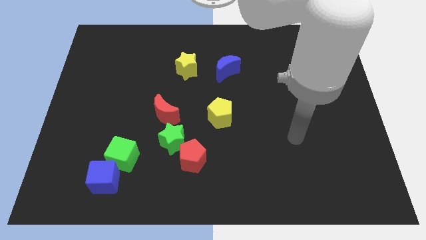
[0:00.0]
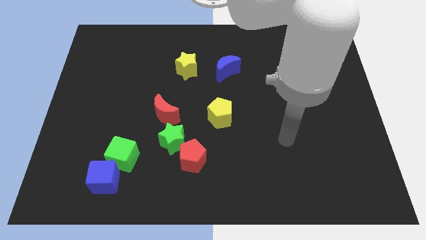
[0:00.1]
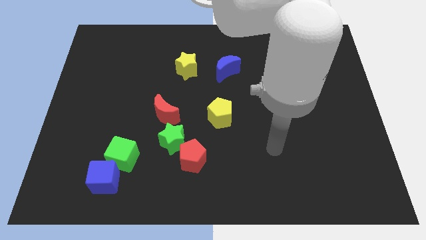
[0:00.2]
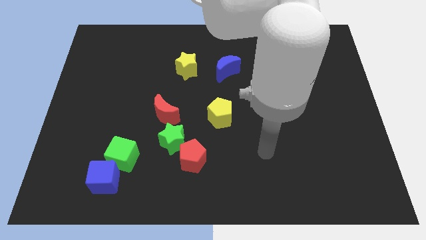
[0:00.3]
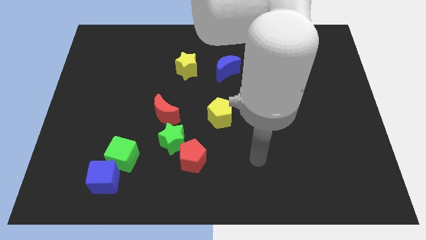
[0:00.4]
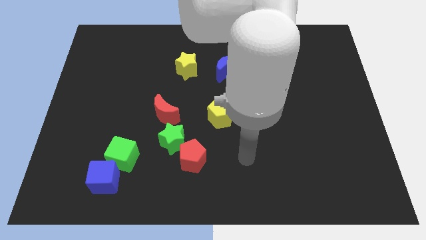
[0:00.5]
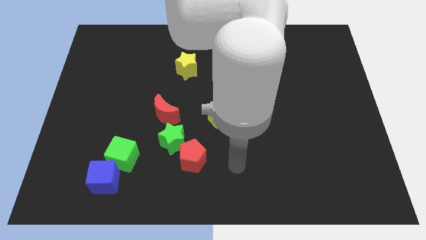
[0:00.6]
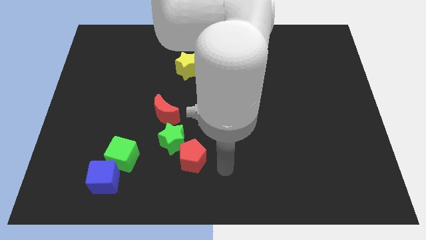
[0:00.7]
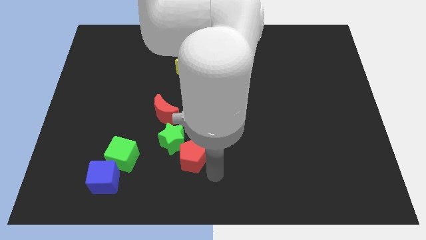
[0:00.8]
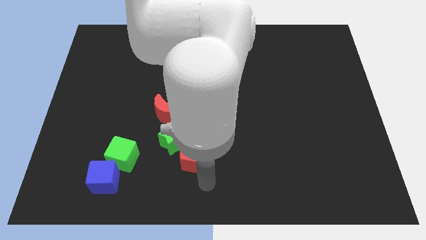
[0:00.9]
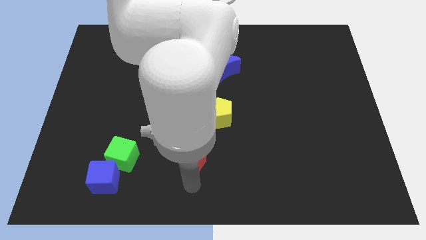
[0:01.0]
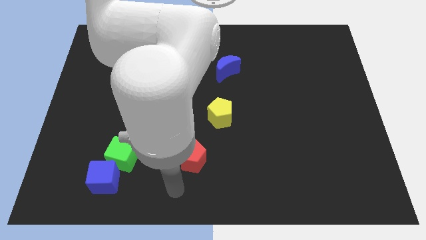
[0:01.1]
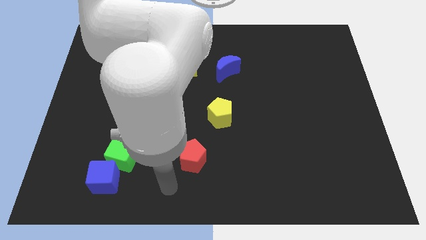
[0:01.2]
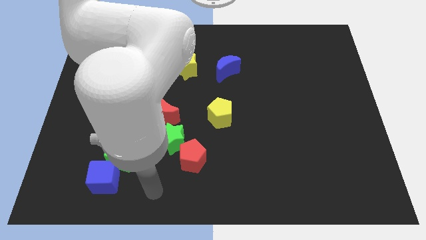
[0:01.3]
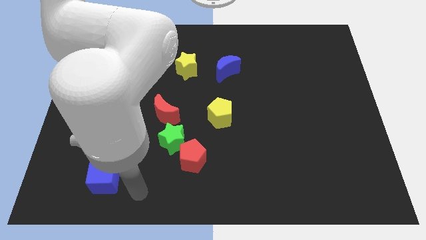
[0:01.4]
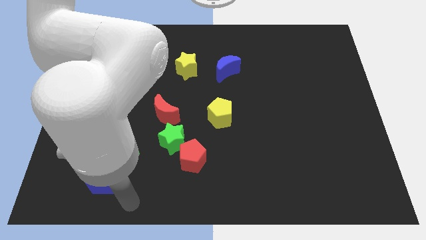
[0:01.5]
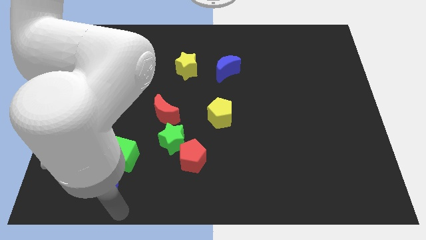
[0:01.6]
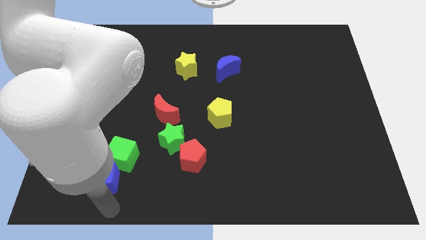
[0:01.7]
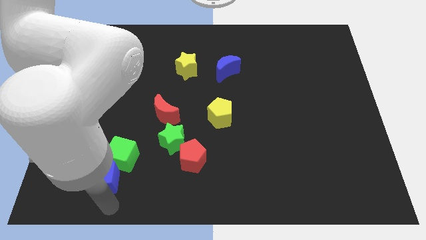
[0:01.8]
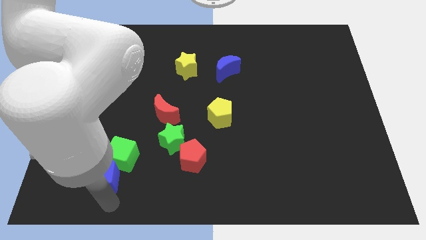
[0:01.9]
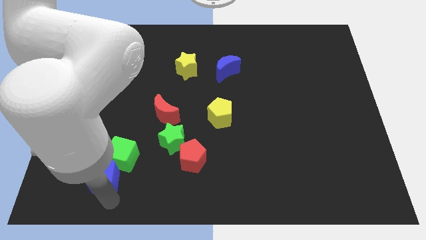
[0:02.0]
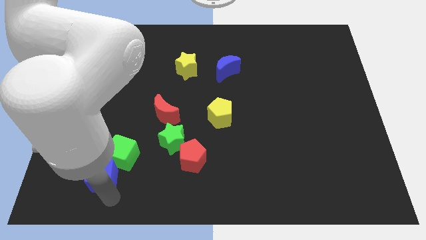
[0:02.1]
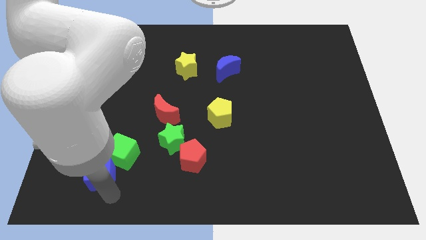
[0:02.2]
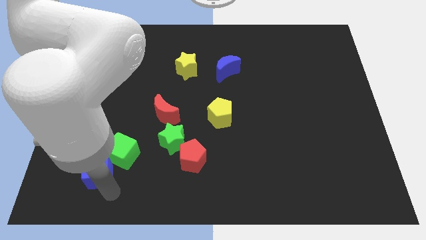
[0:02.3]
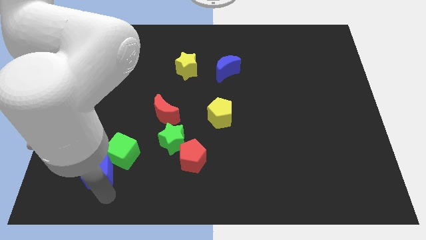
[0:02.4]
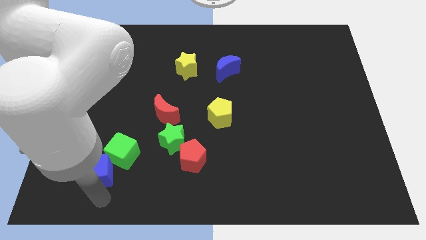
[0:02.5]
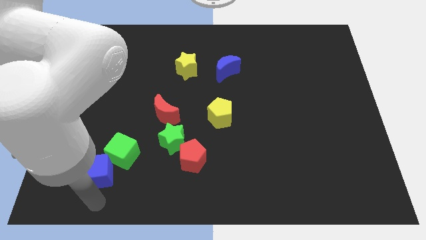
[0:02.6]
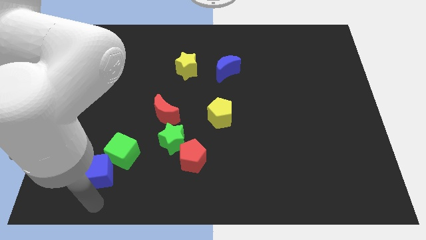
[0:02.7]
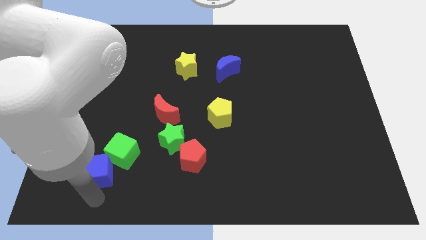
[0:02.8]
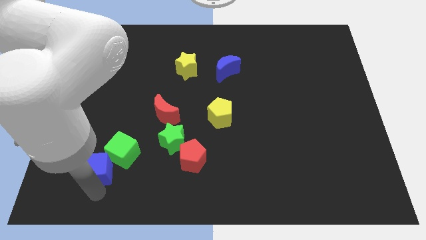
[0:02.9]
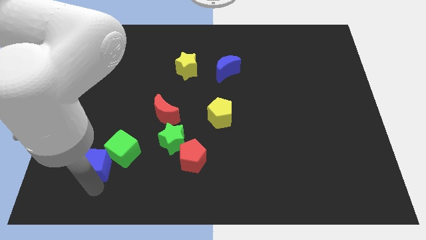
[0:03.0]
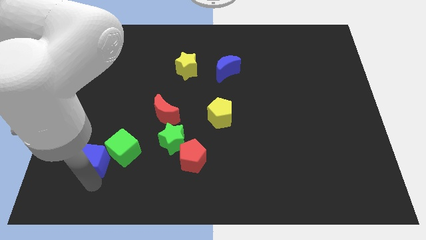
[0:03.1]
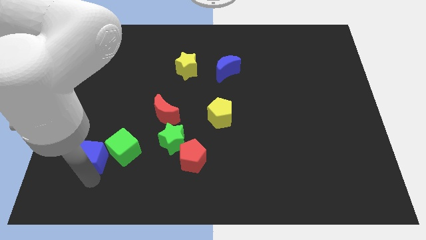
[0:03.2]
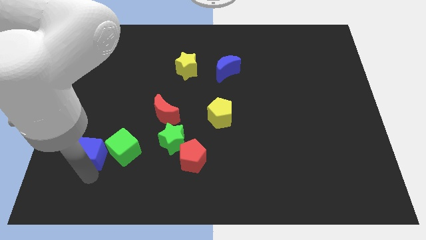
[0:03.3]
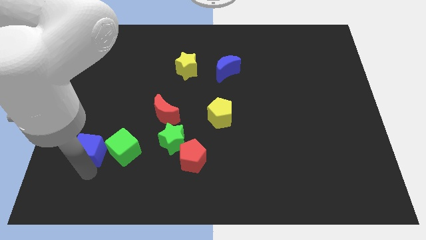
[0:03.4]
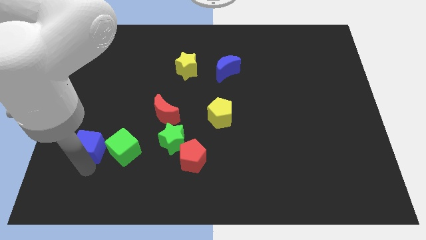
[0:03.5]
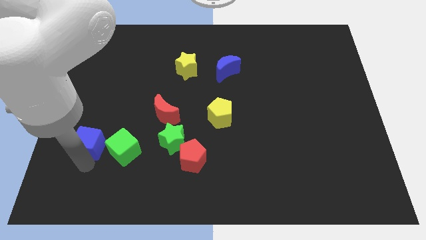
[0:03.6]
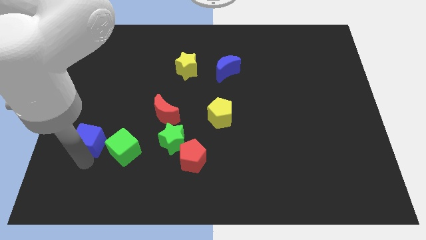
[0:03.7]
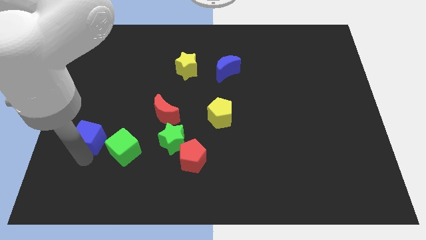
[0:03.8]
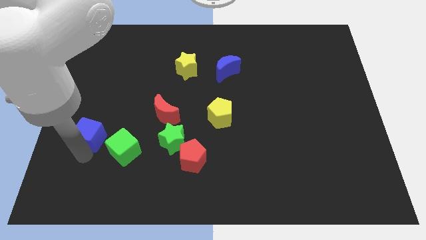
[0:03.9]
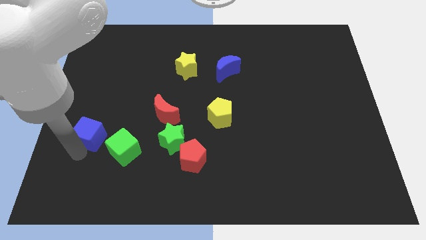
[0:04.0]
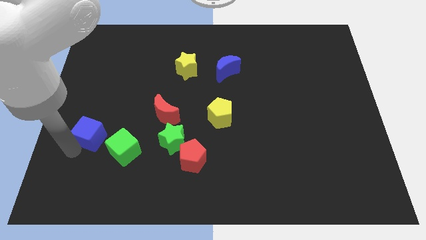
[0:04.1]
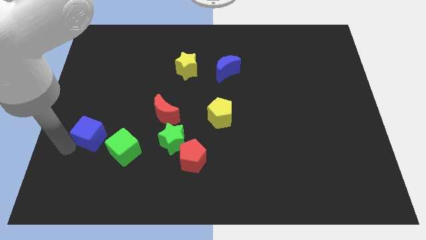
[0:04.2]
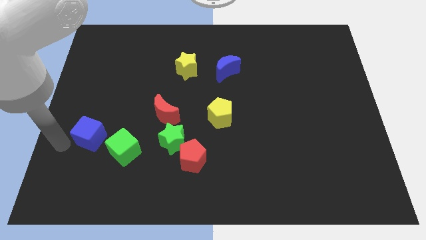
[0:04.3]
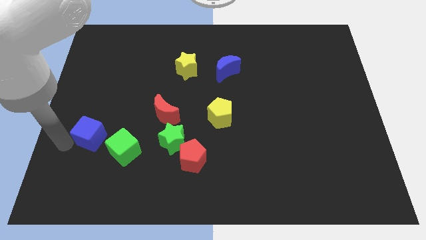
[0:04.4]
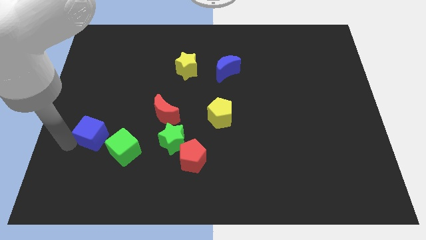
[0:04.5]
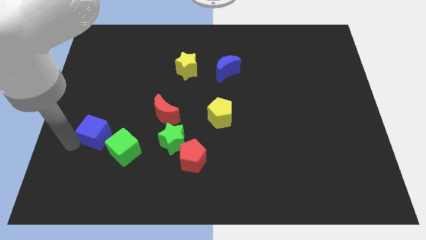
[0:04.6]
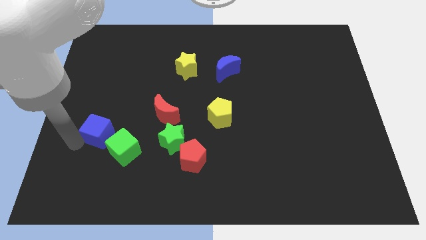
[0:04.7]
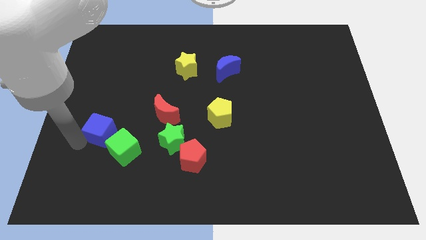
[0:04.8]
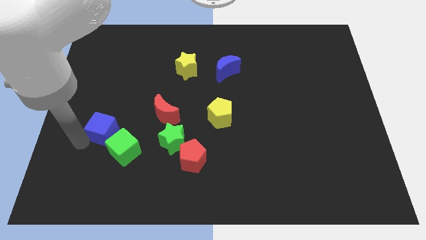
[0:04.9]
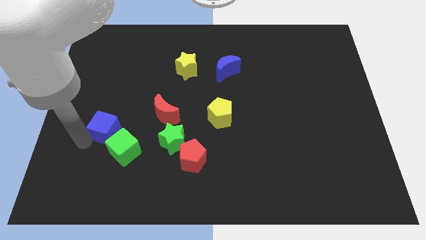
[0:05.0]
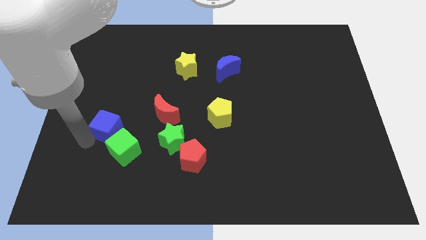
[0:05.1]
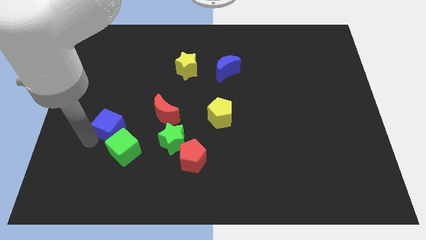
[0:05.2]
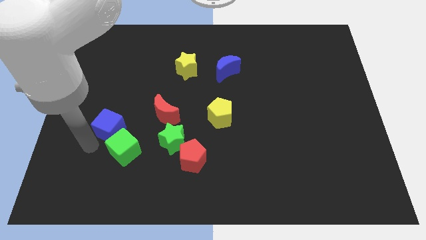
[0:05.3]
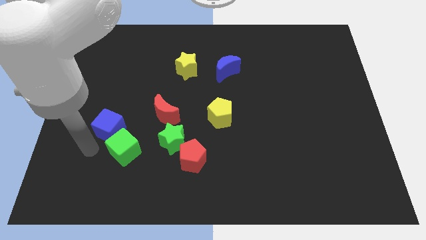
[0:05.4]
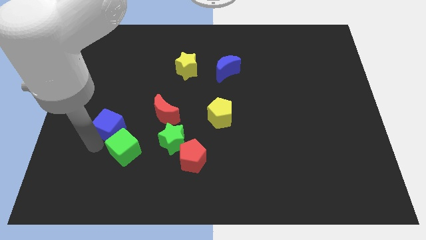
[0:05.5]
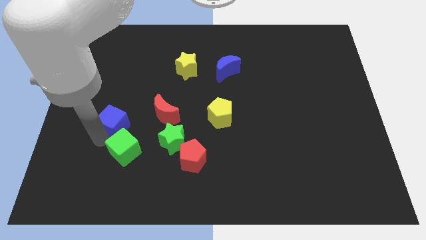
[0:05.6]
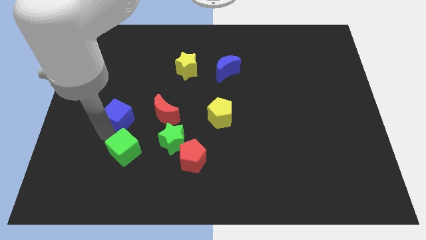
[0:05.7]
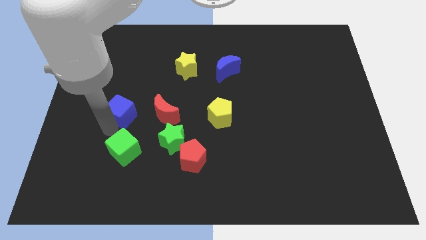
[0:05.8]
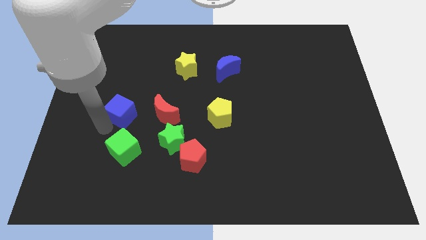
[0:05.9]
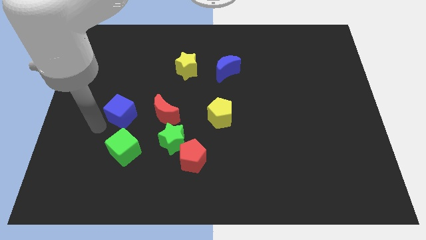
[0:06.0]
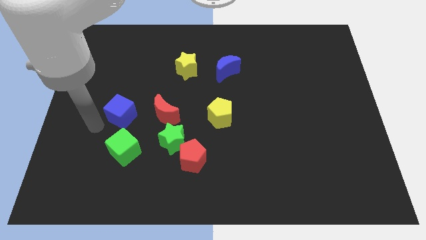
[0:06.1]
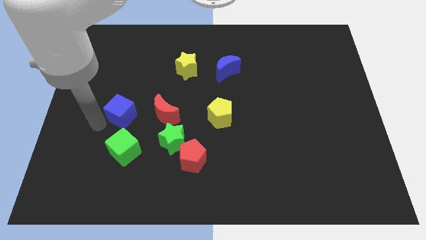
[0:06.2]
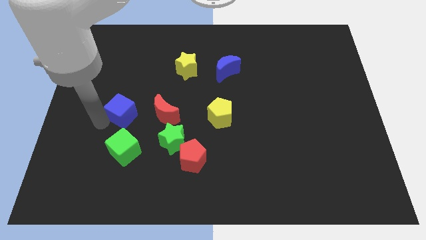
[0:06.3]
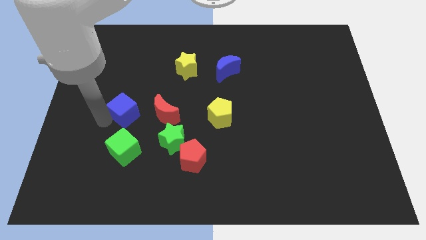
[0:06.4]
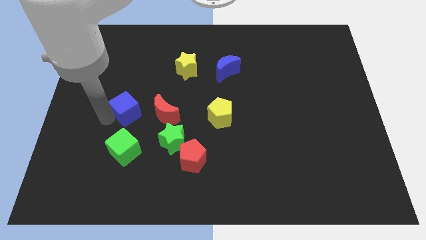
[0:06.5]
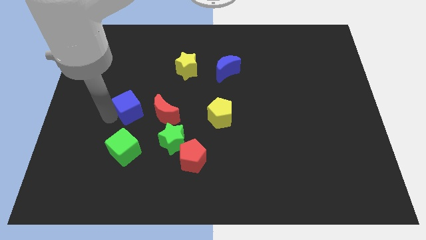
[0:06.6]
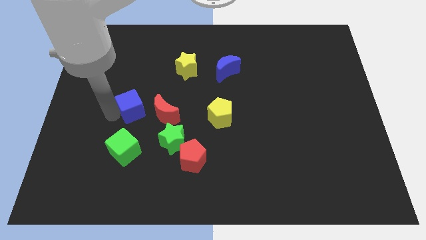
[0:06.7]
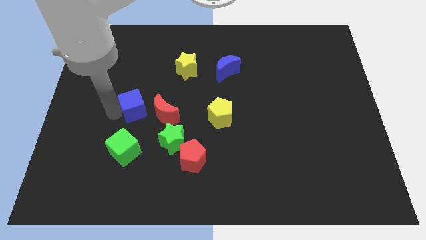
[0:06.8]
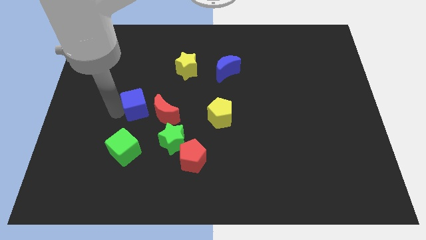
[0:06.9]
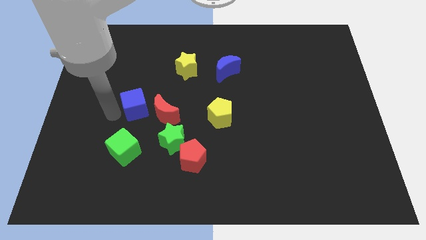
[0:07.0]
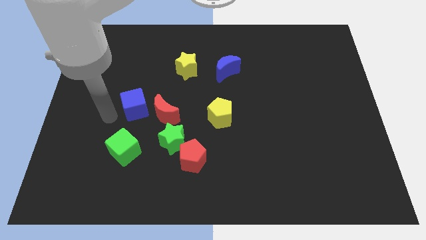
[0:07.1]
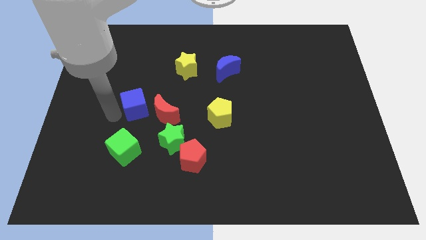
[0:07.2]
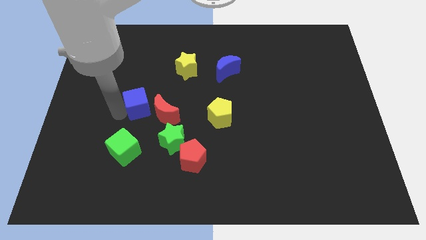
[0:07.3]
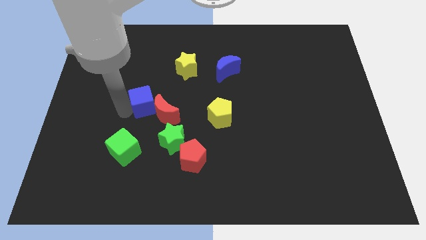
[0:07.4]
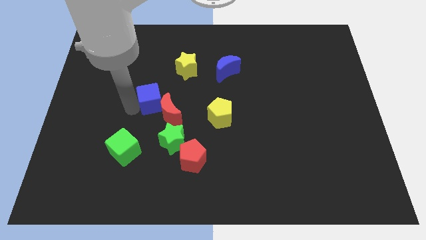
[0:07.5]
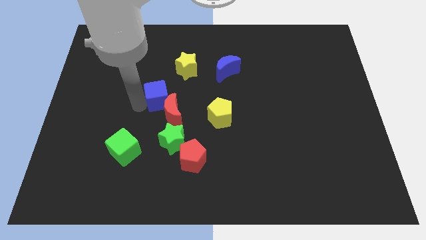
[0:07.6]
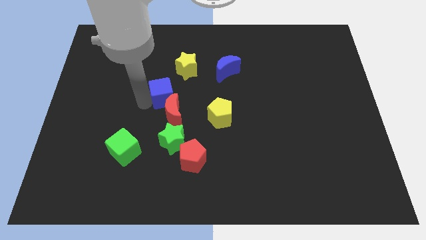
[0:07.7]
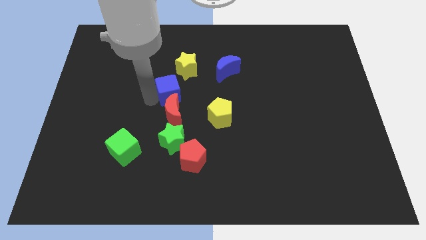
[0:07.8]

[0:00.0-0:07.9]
push the blue cube diagonally upwards and to the right
